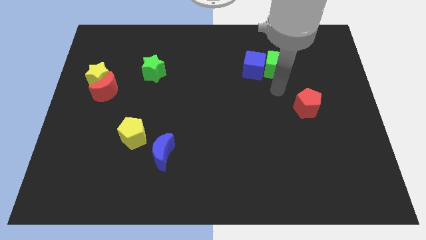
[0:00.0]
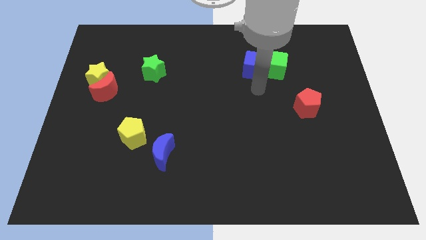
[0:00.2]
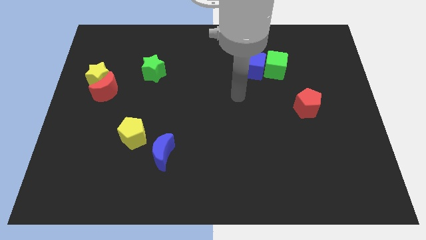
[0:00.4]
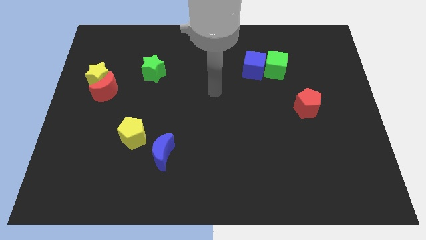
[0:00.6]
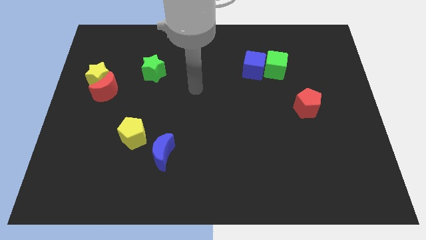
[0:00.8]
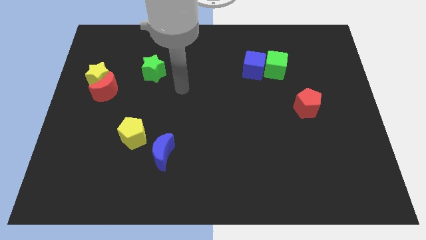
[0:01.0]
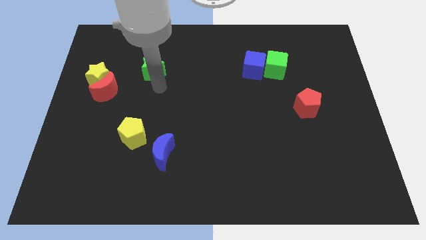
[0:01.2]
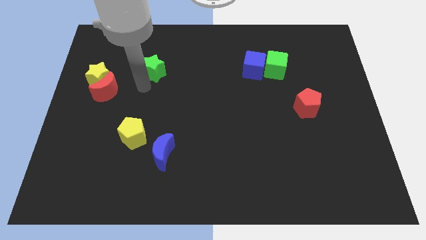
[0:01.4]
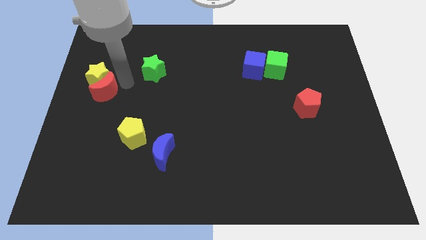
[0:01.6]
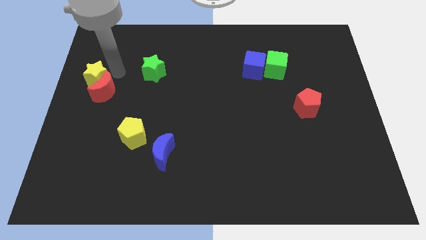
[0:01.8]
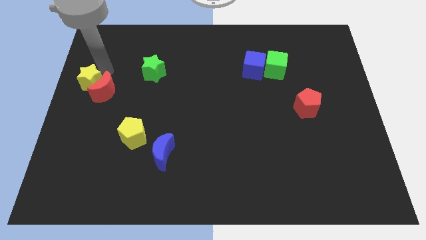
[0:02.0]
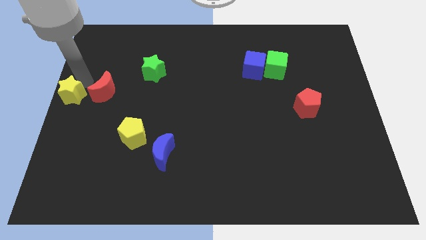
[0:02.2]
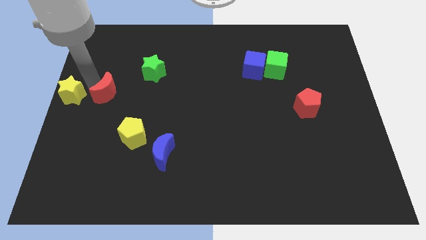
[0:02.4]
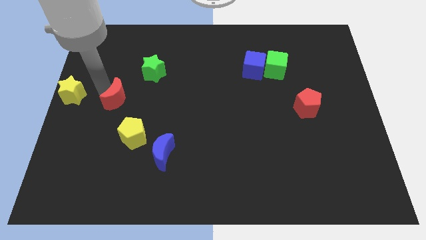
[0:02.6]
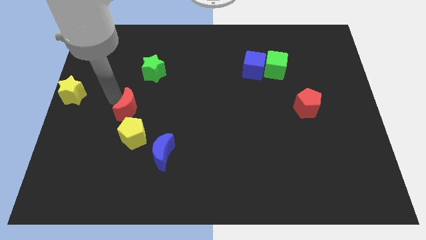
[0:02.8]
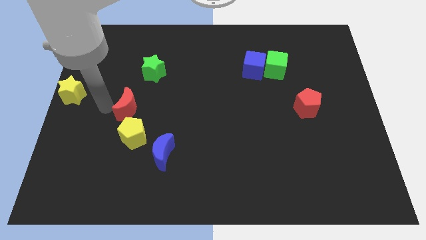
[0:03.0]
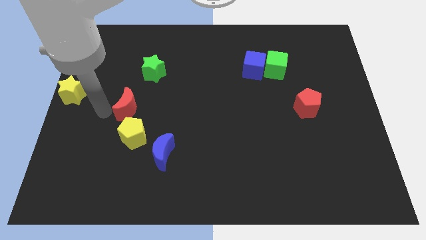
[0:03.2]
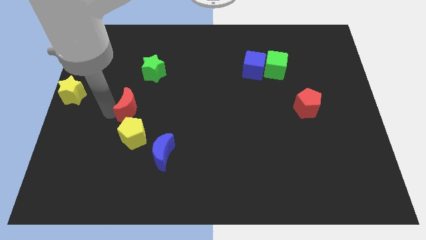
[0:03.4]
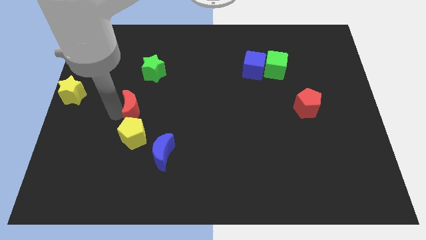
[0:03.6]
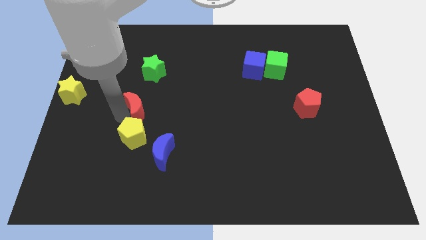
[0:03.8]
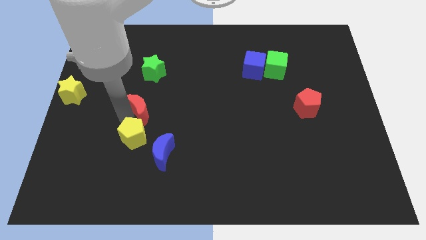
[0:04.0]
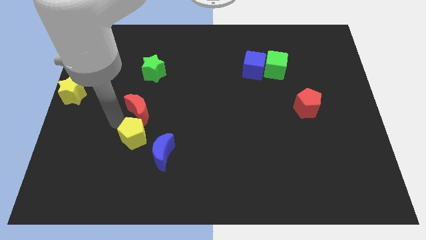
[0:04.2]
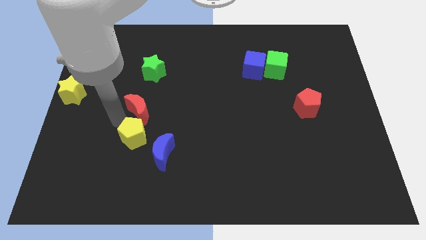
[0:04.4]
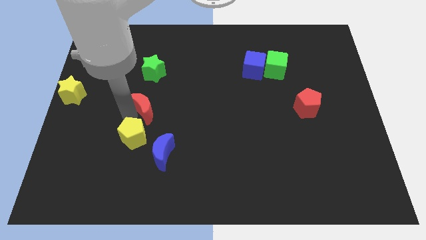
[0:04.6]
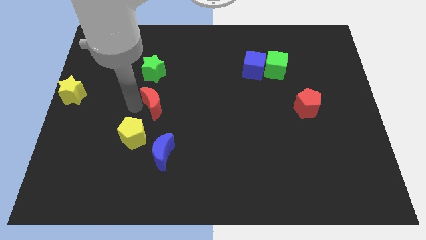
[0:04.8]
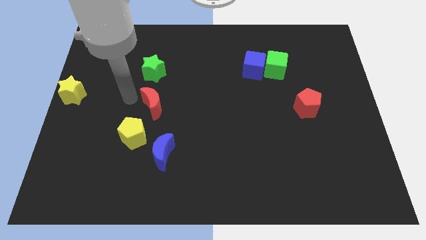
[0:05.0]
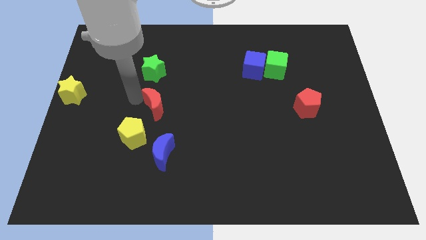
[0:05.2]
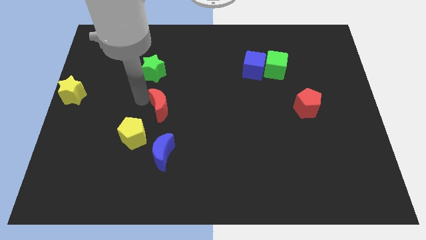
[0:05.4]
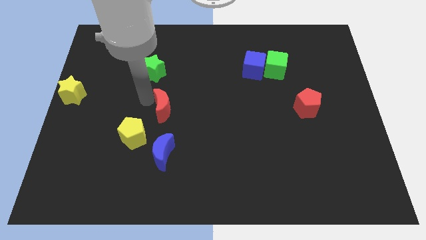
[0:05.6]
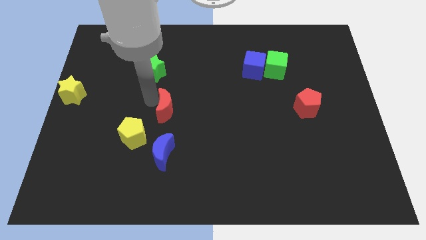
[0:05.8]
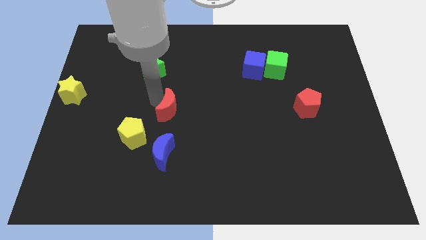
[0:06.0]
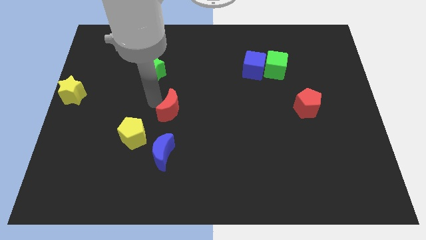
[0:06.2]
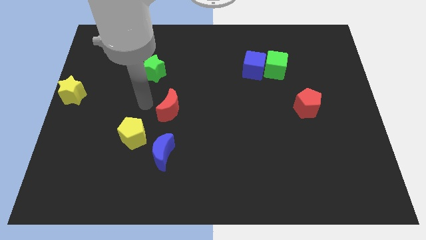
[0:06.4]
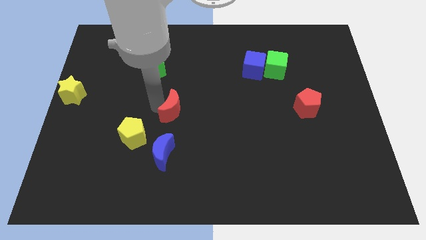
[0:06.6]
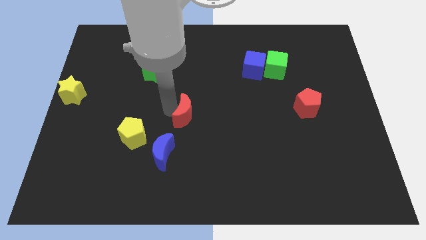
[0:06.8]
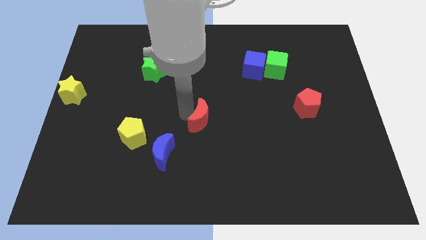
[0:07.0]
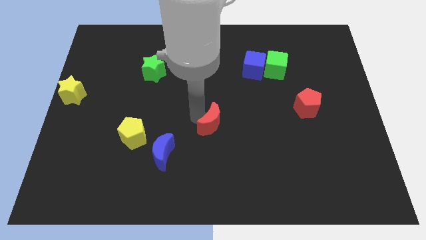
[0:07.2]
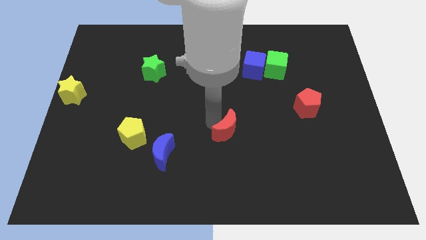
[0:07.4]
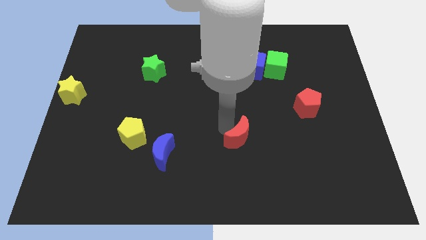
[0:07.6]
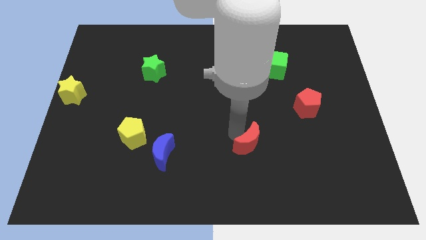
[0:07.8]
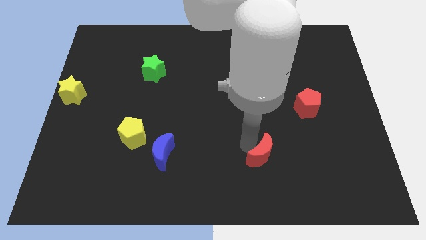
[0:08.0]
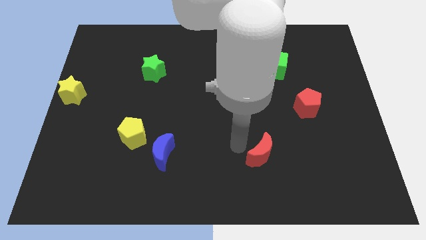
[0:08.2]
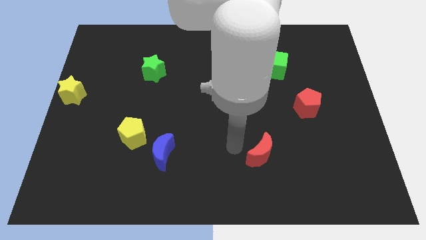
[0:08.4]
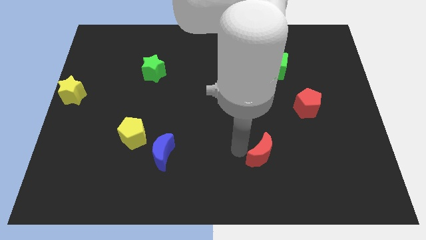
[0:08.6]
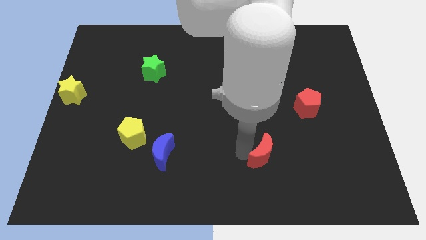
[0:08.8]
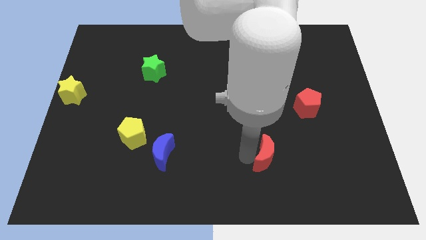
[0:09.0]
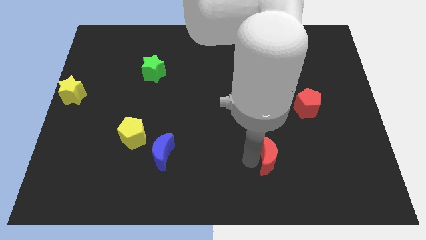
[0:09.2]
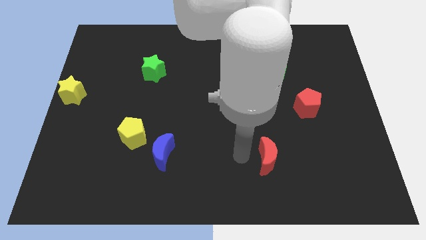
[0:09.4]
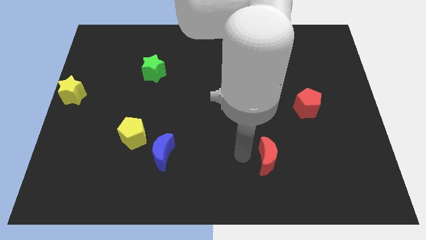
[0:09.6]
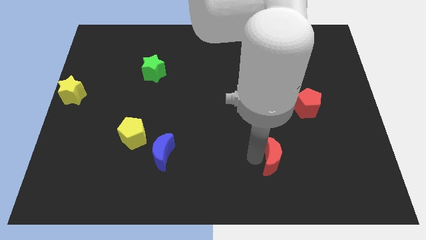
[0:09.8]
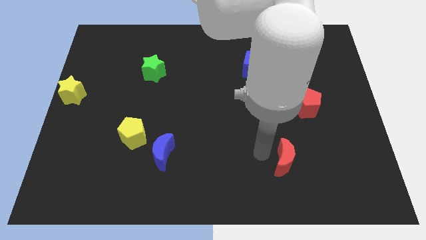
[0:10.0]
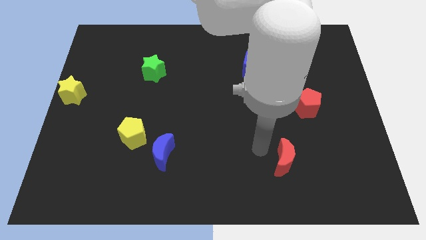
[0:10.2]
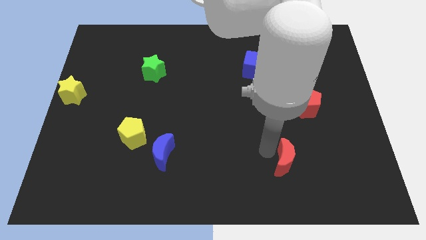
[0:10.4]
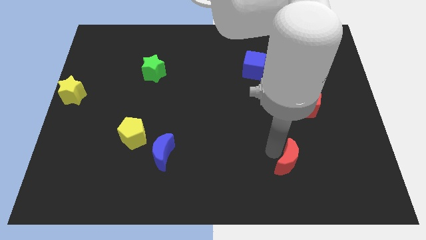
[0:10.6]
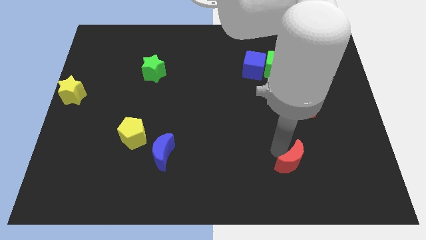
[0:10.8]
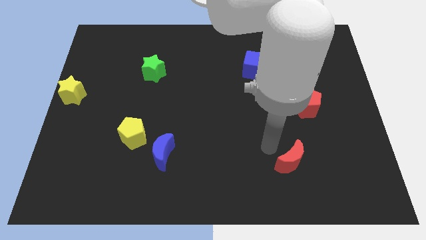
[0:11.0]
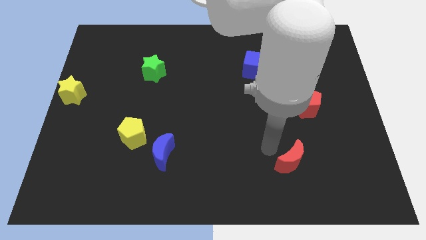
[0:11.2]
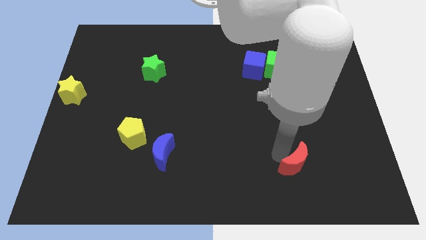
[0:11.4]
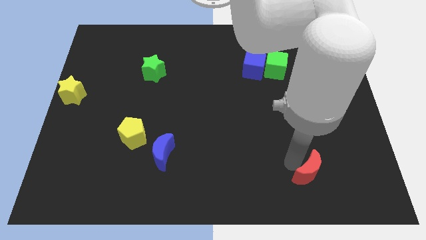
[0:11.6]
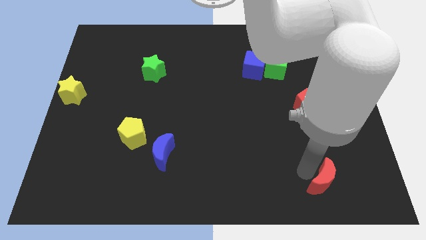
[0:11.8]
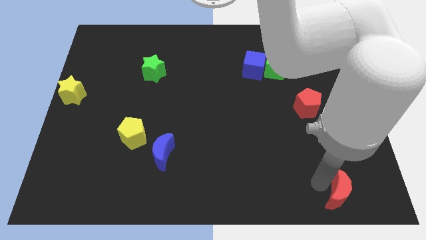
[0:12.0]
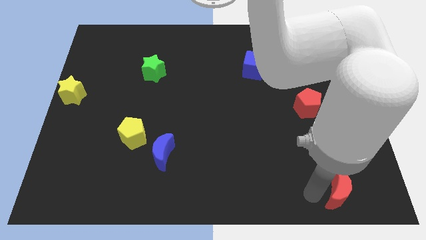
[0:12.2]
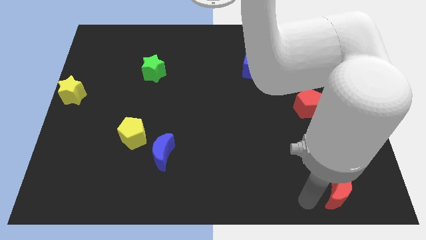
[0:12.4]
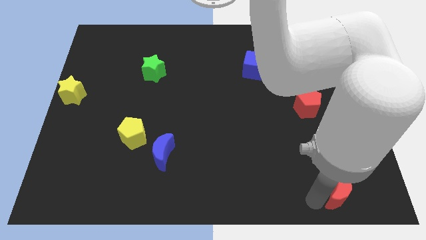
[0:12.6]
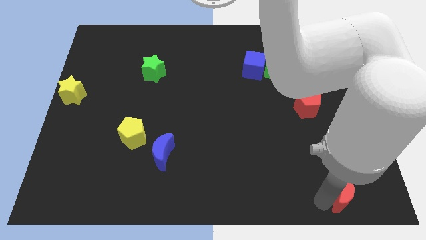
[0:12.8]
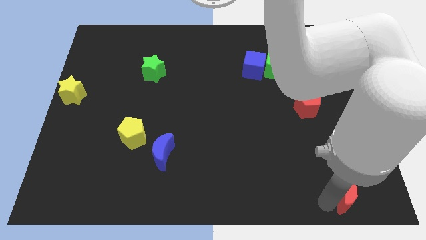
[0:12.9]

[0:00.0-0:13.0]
put the red moon to the lower right corner
